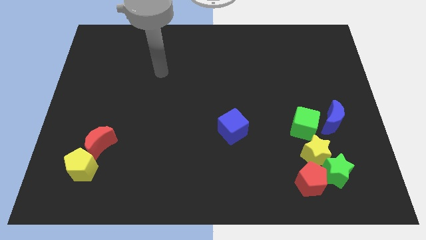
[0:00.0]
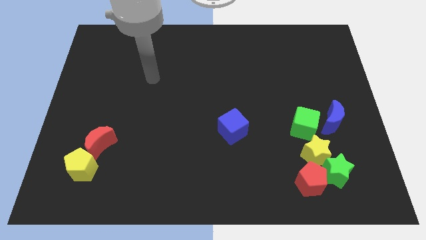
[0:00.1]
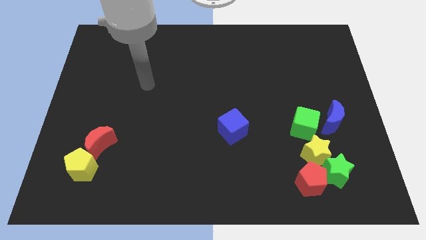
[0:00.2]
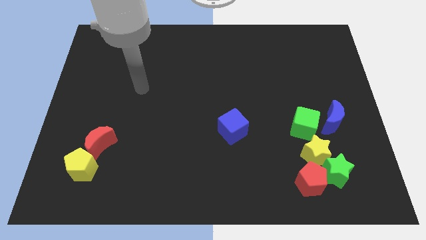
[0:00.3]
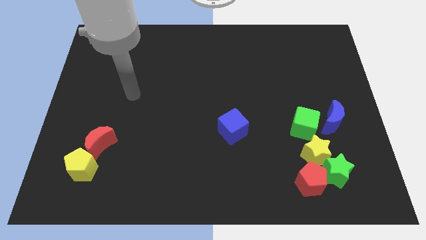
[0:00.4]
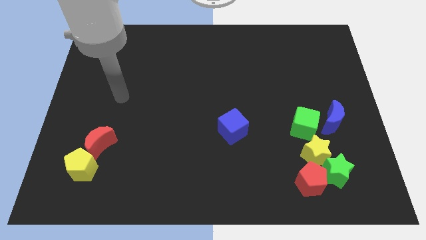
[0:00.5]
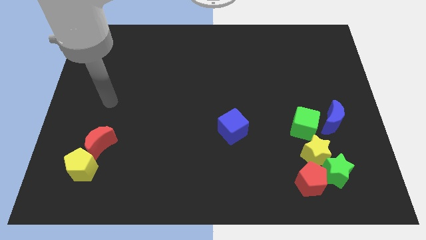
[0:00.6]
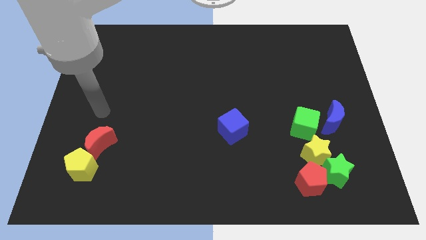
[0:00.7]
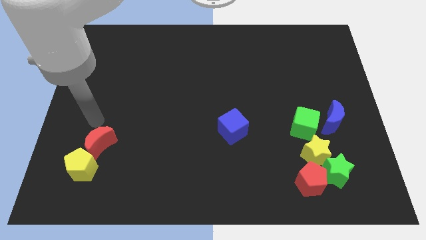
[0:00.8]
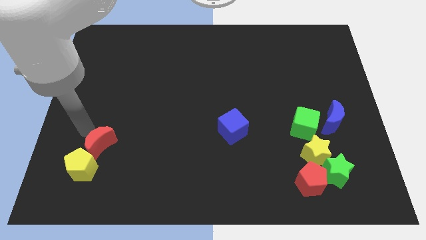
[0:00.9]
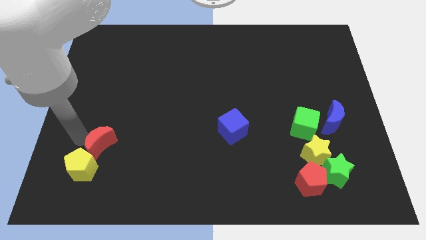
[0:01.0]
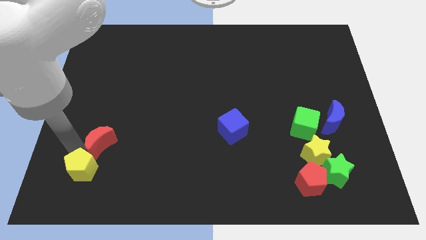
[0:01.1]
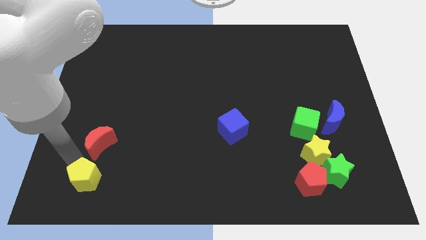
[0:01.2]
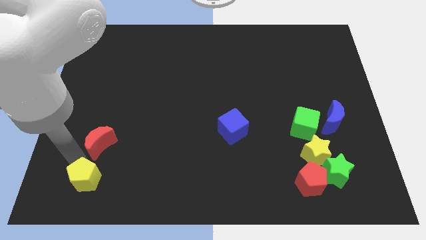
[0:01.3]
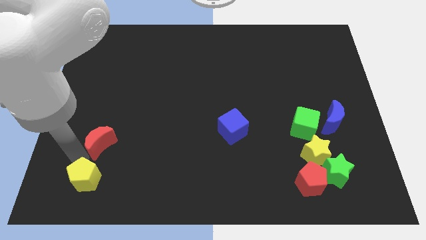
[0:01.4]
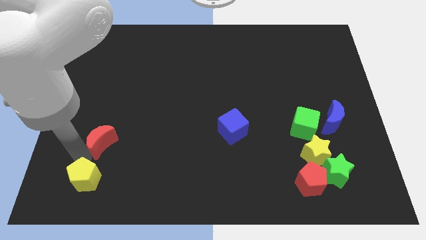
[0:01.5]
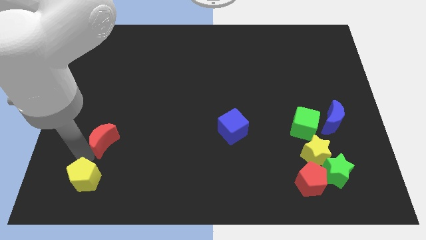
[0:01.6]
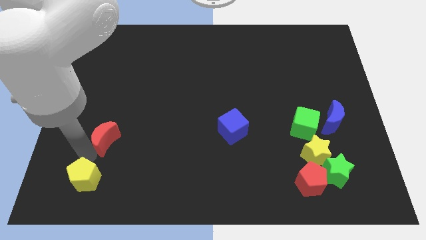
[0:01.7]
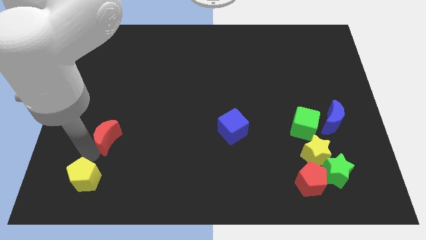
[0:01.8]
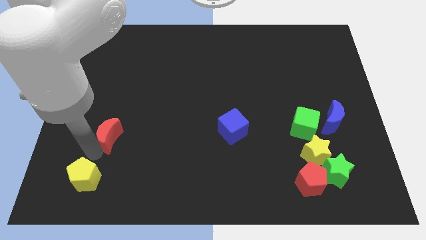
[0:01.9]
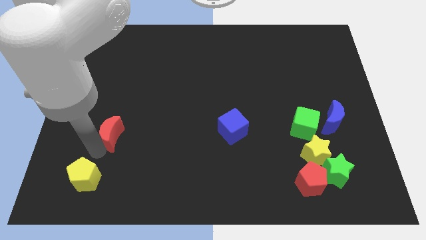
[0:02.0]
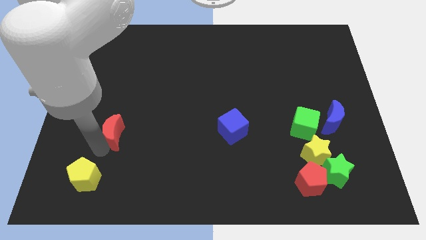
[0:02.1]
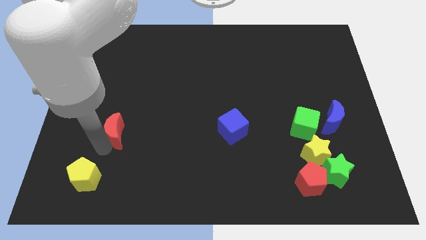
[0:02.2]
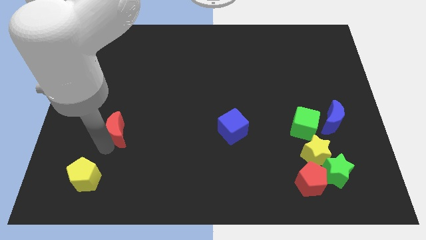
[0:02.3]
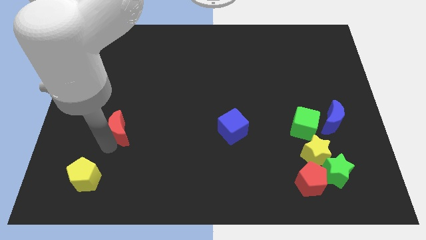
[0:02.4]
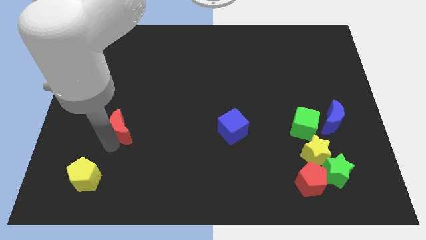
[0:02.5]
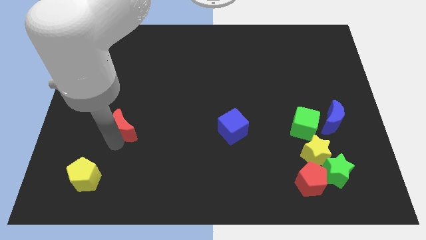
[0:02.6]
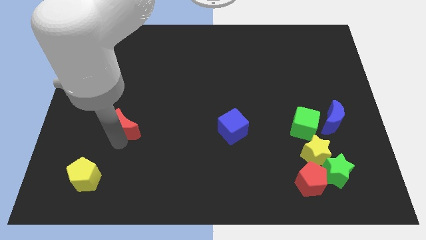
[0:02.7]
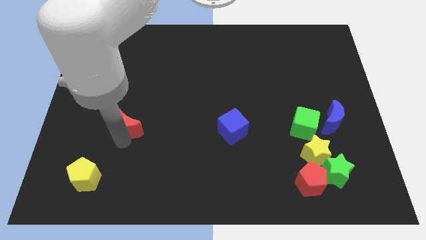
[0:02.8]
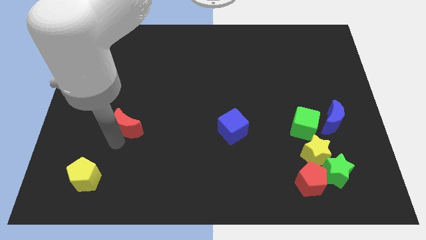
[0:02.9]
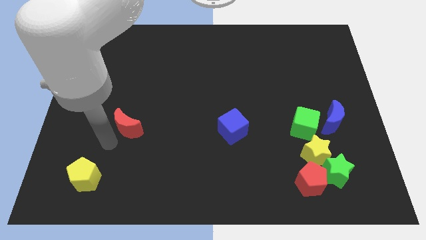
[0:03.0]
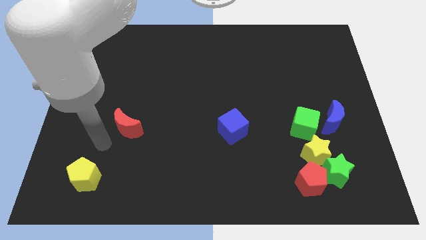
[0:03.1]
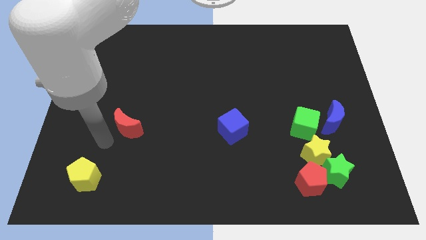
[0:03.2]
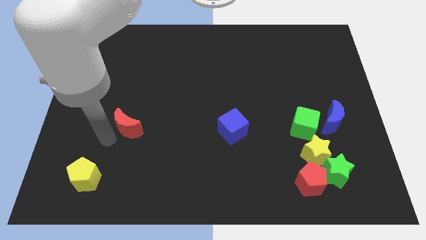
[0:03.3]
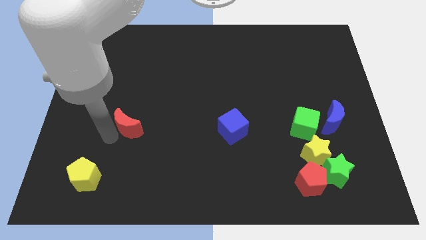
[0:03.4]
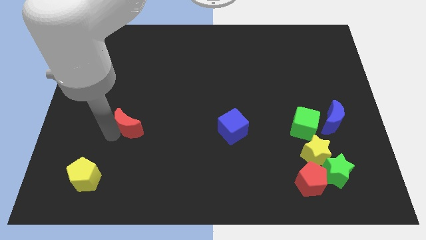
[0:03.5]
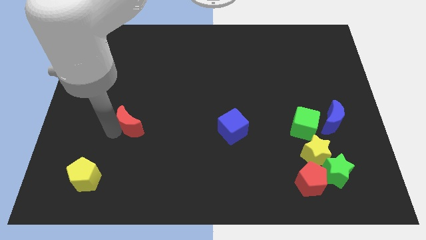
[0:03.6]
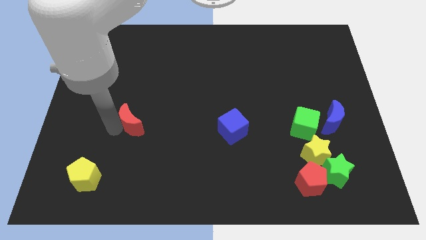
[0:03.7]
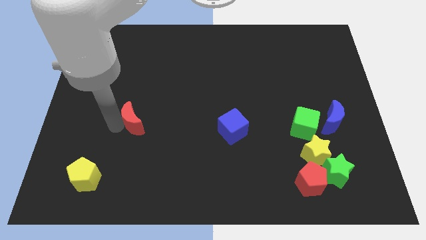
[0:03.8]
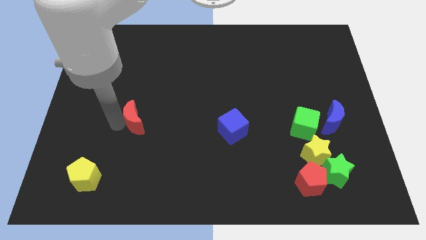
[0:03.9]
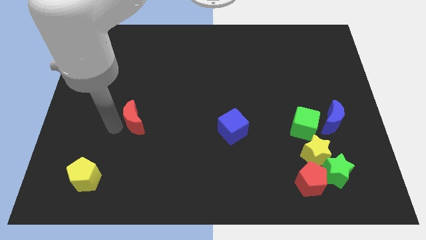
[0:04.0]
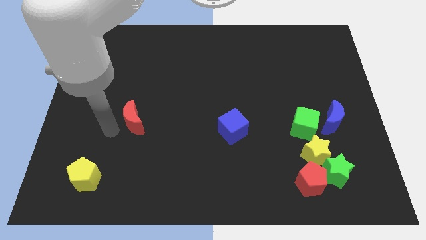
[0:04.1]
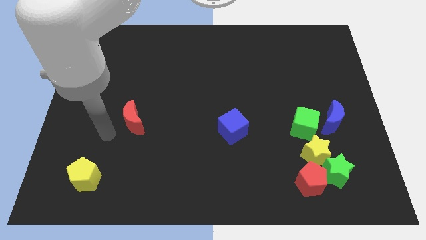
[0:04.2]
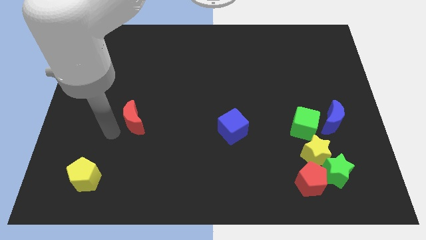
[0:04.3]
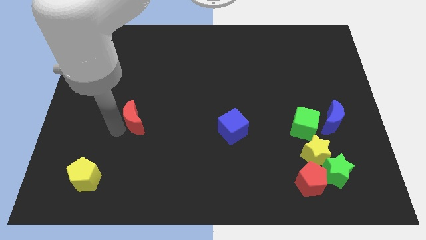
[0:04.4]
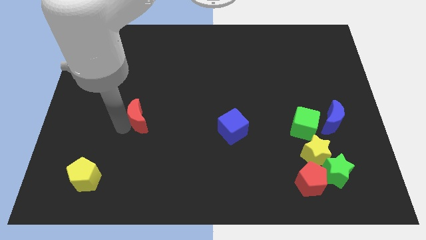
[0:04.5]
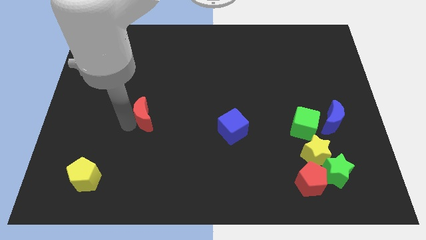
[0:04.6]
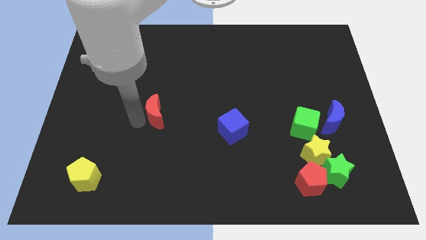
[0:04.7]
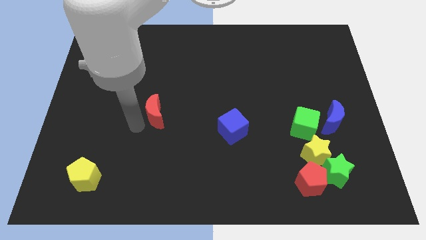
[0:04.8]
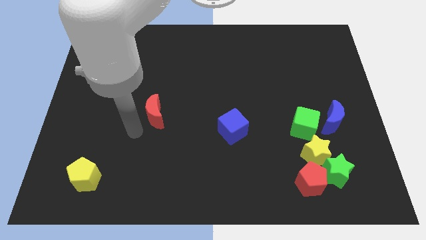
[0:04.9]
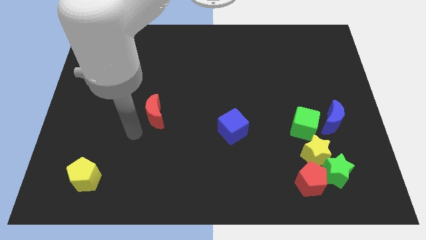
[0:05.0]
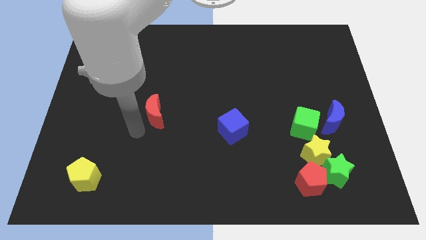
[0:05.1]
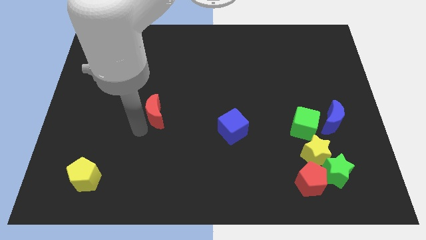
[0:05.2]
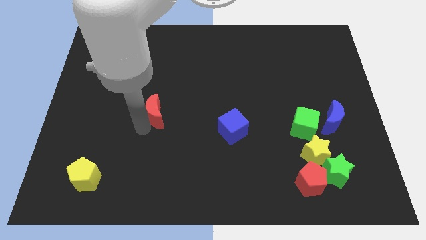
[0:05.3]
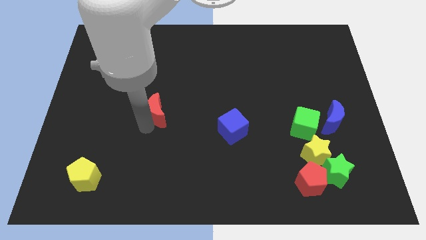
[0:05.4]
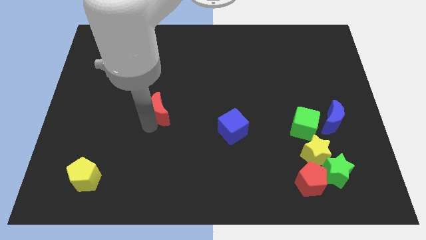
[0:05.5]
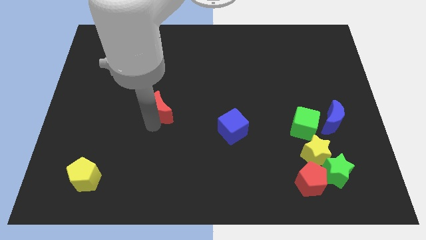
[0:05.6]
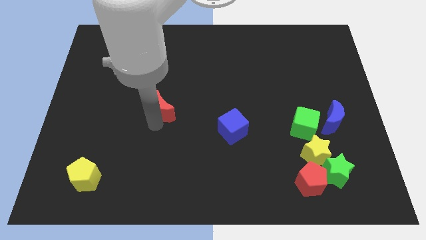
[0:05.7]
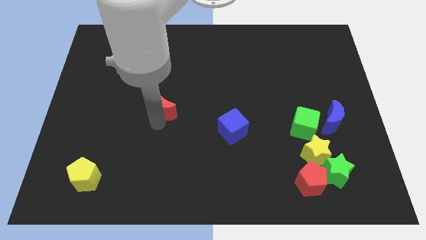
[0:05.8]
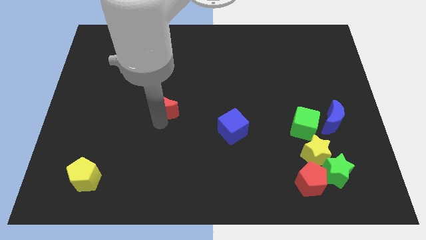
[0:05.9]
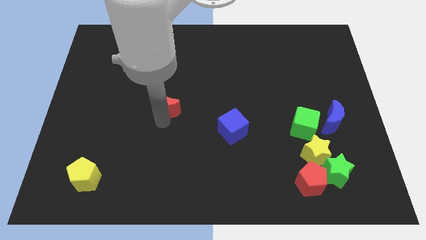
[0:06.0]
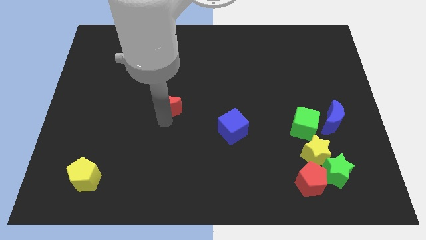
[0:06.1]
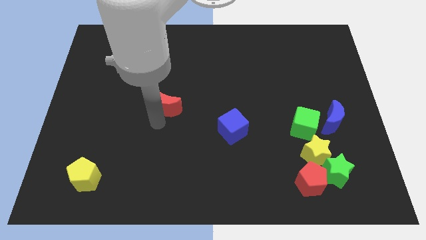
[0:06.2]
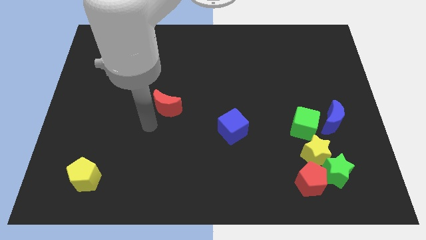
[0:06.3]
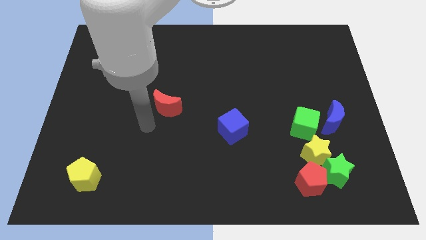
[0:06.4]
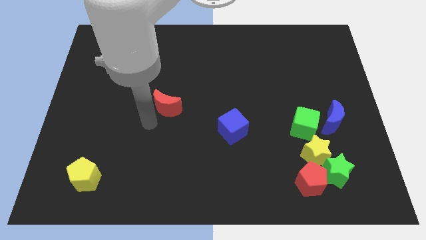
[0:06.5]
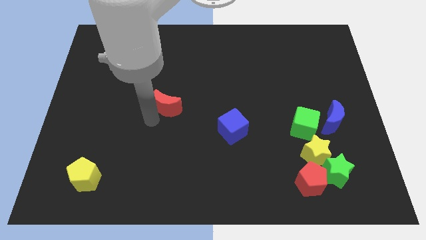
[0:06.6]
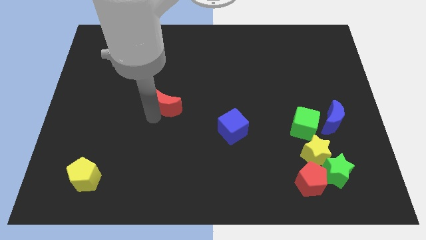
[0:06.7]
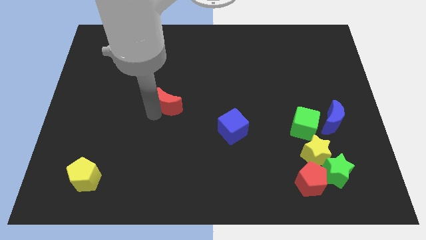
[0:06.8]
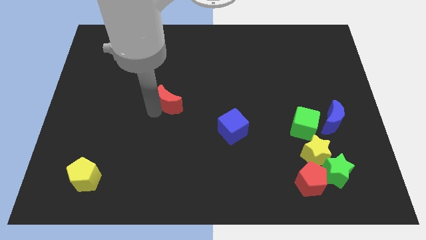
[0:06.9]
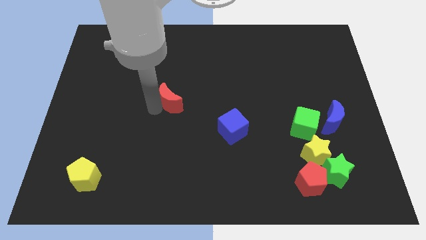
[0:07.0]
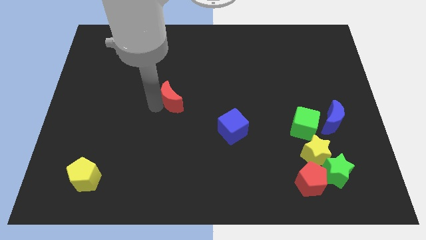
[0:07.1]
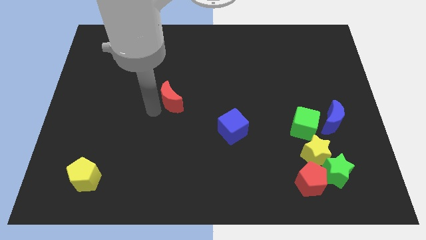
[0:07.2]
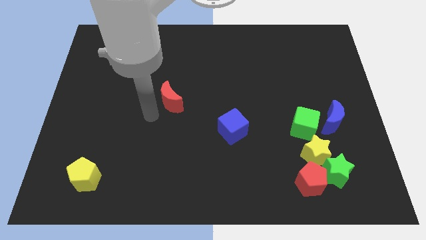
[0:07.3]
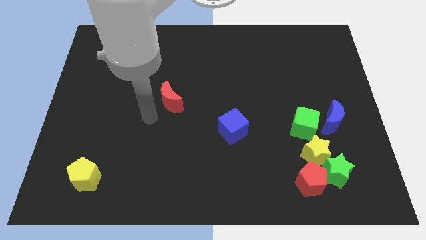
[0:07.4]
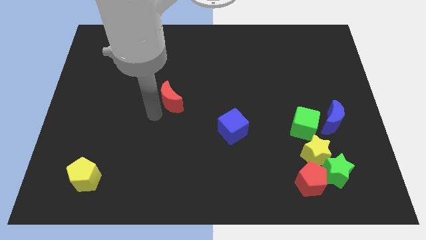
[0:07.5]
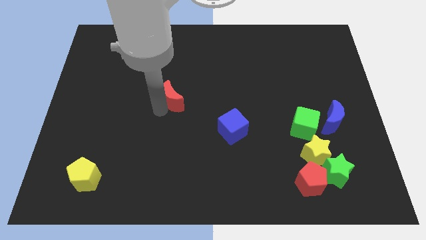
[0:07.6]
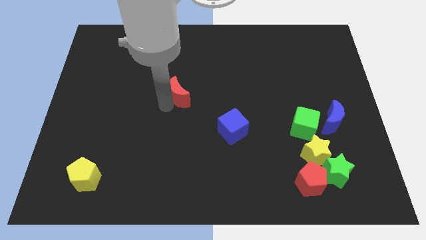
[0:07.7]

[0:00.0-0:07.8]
move the red moon diagonally up and to the right

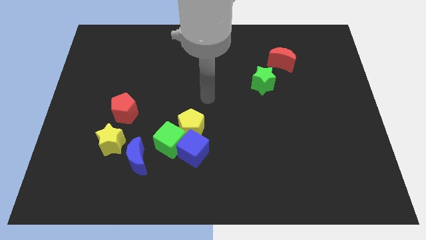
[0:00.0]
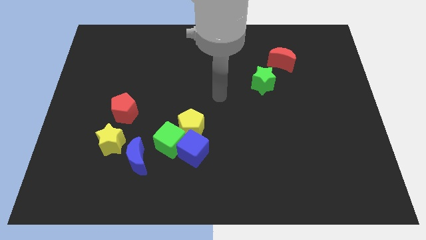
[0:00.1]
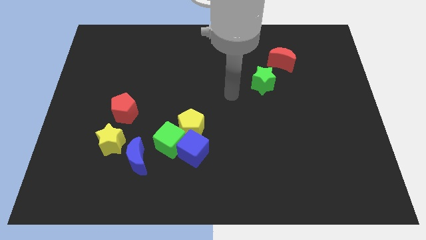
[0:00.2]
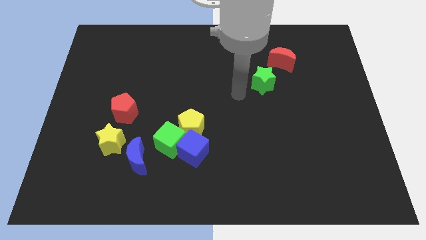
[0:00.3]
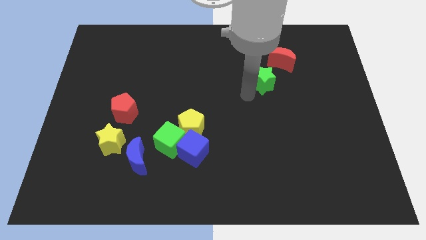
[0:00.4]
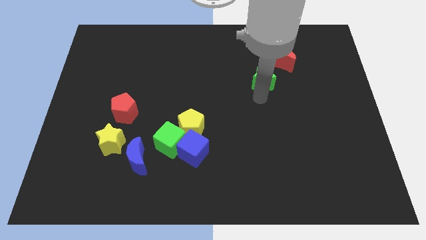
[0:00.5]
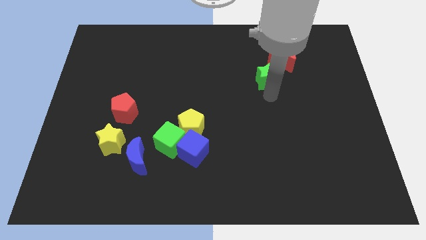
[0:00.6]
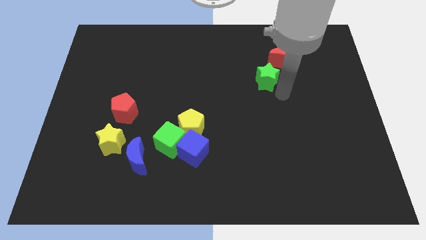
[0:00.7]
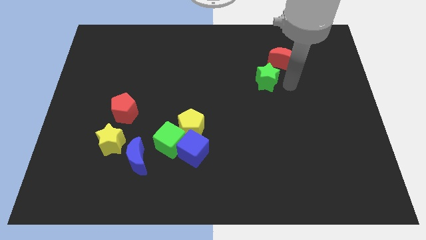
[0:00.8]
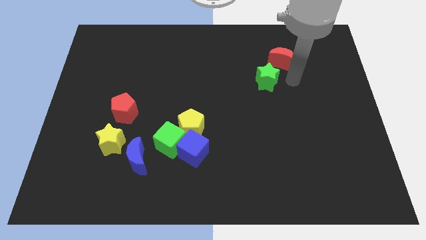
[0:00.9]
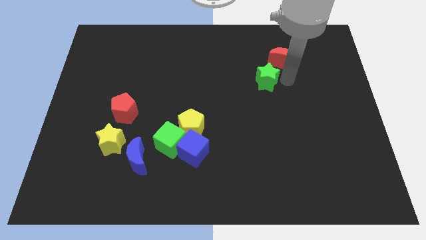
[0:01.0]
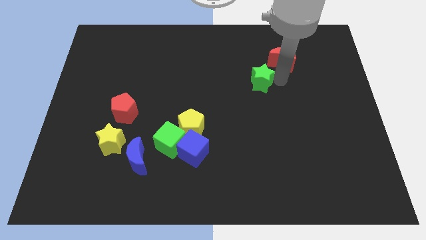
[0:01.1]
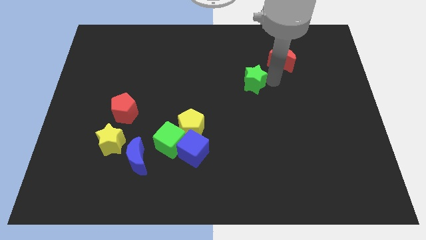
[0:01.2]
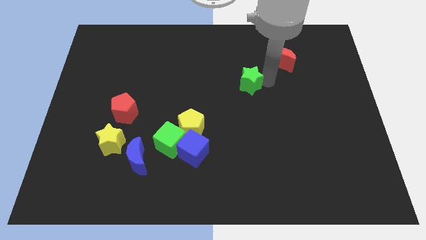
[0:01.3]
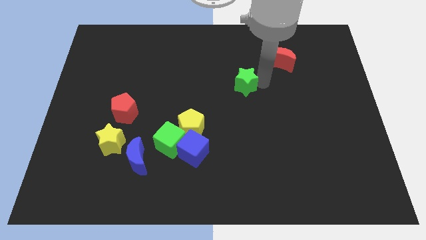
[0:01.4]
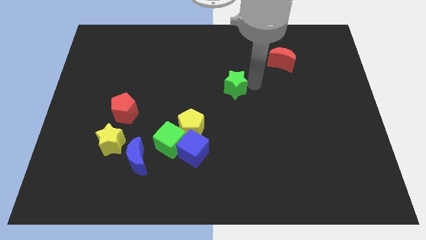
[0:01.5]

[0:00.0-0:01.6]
slightly slide the green star left
